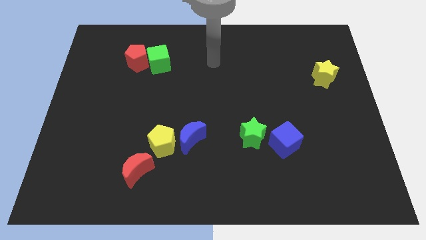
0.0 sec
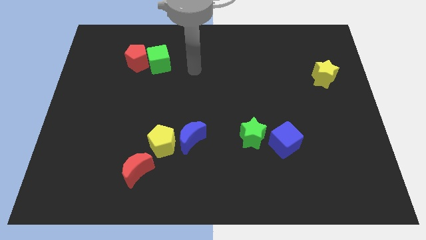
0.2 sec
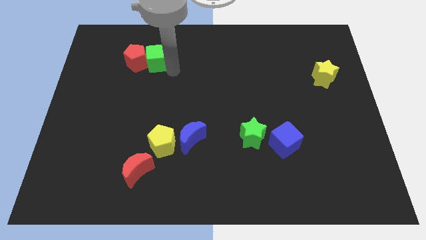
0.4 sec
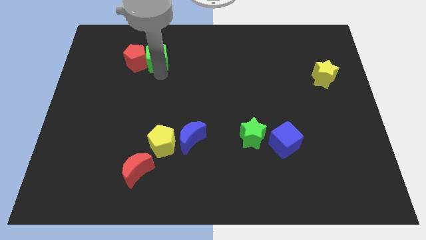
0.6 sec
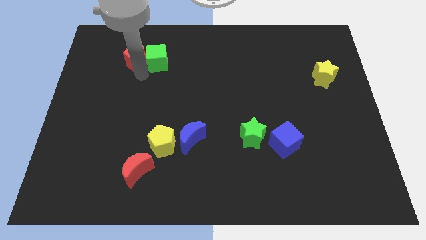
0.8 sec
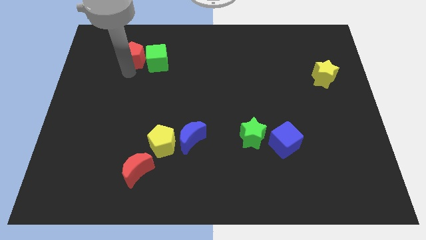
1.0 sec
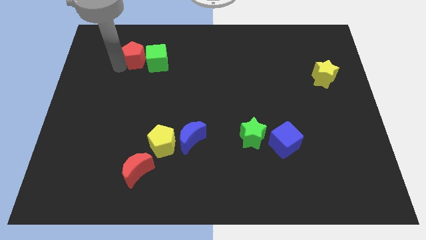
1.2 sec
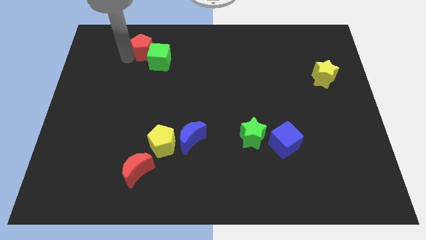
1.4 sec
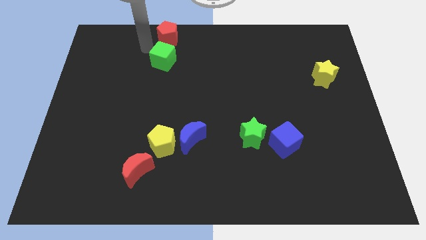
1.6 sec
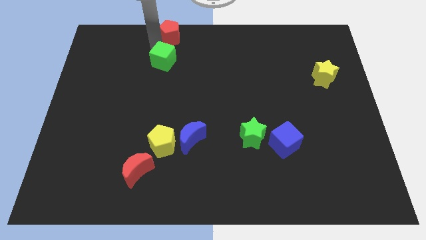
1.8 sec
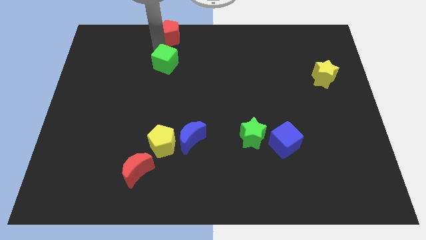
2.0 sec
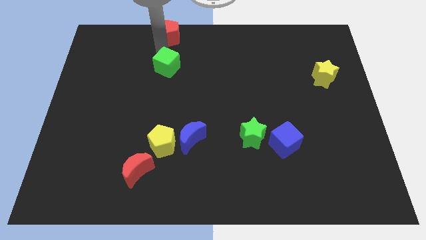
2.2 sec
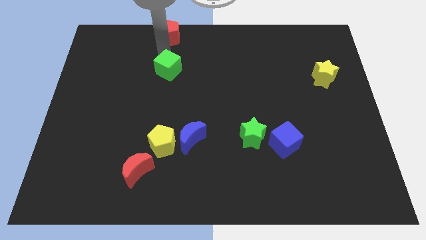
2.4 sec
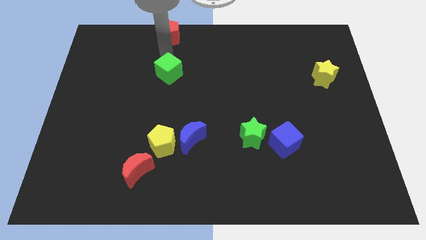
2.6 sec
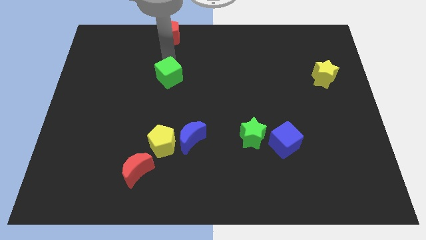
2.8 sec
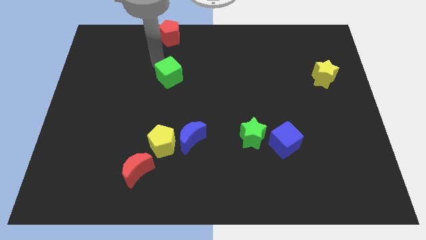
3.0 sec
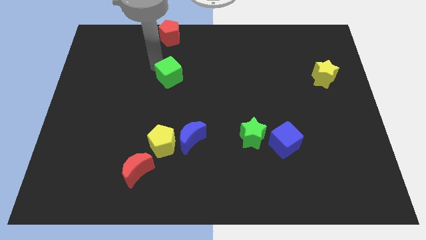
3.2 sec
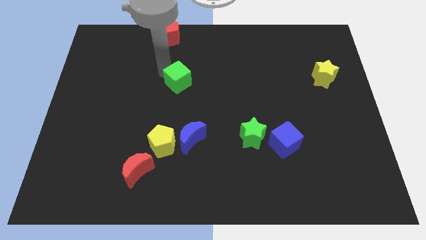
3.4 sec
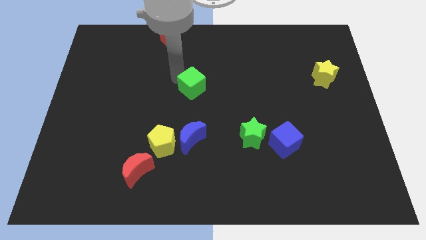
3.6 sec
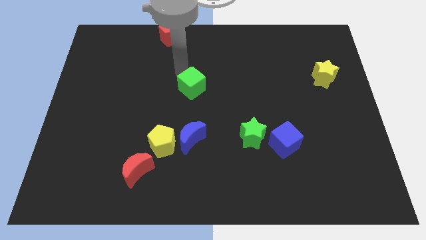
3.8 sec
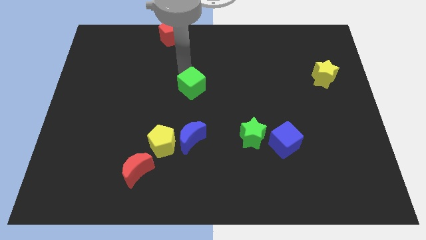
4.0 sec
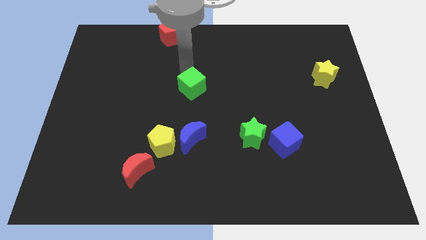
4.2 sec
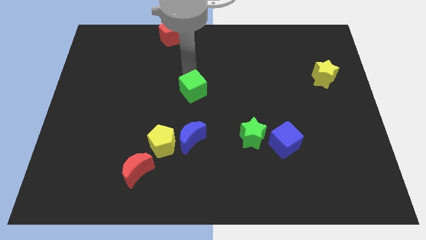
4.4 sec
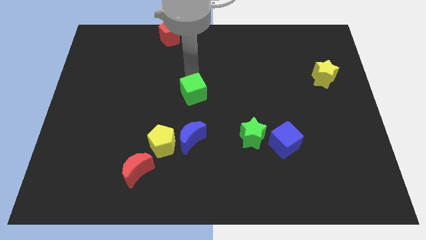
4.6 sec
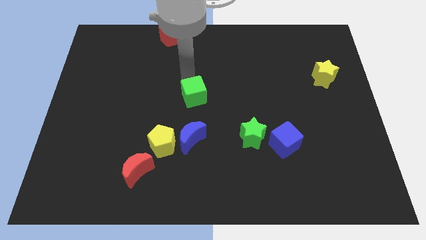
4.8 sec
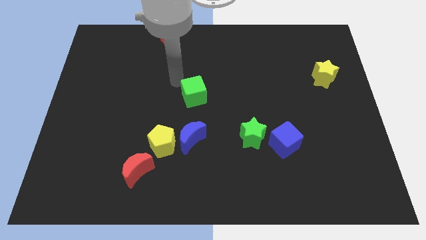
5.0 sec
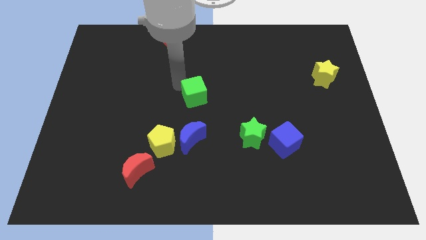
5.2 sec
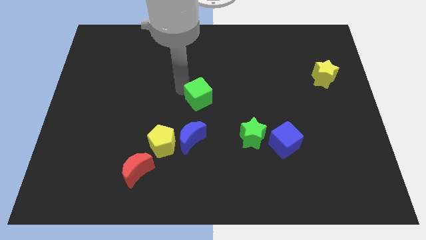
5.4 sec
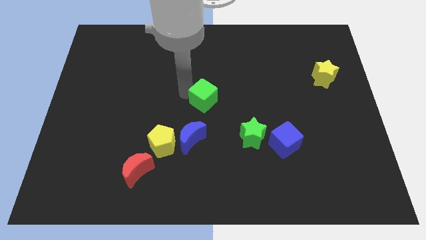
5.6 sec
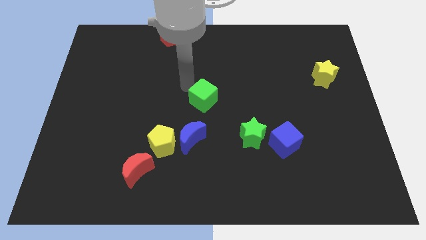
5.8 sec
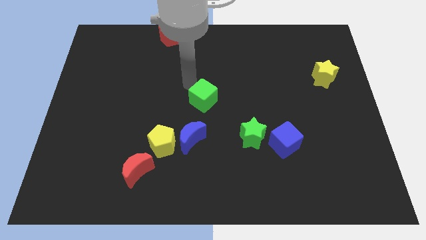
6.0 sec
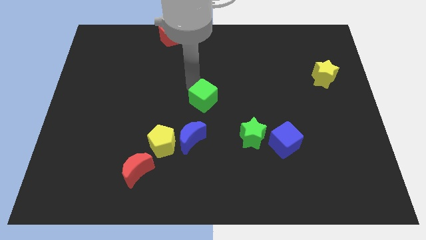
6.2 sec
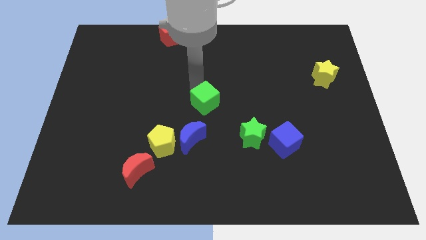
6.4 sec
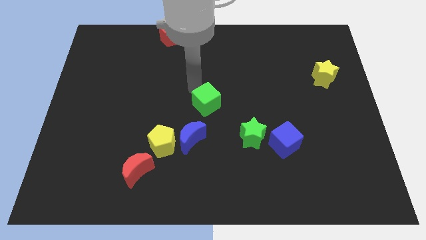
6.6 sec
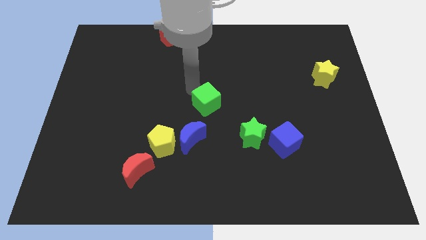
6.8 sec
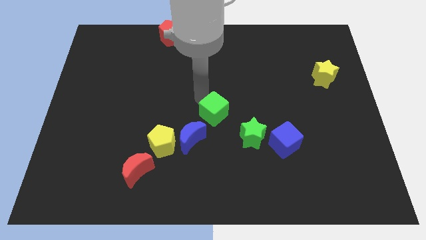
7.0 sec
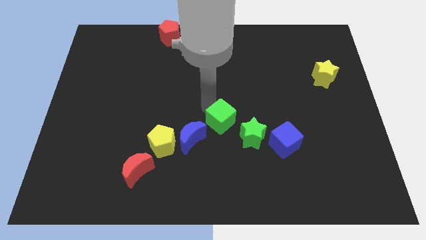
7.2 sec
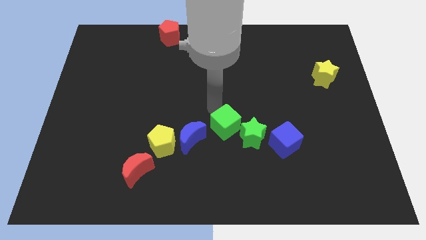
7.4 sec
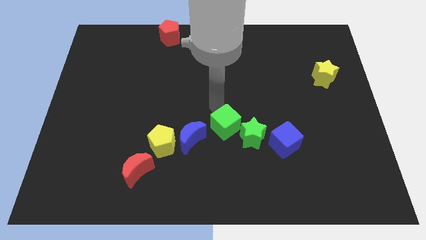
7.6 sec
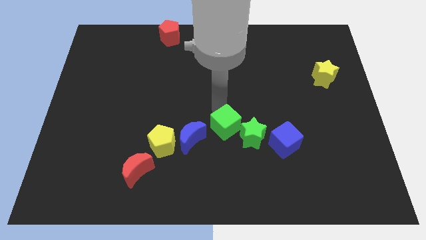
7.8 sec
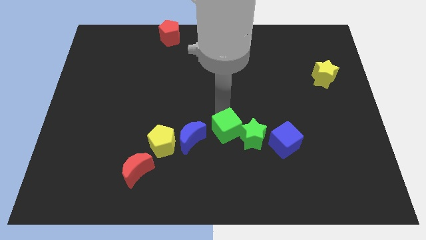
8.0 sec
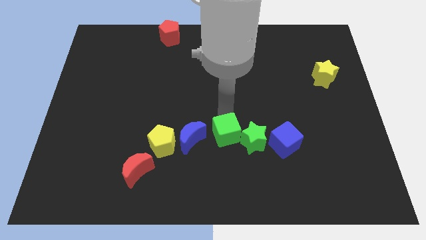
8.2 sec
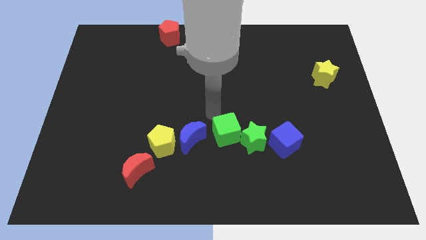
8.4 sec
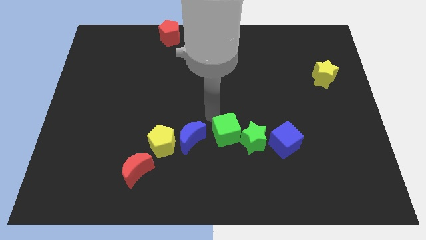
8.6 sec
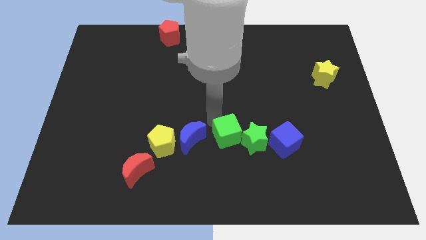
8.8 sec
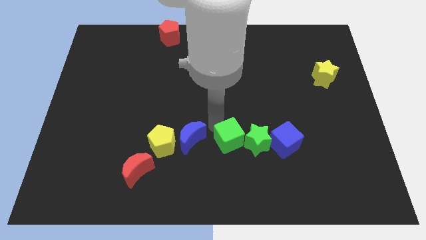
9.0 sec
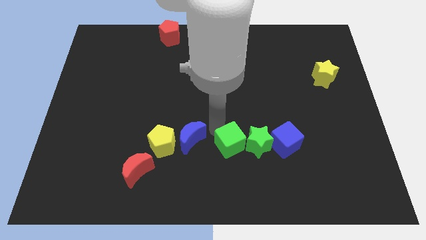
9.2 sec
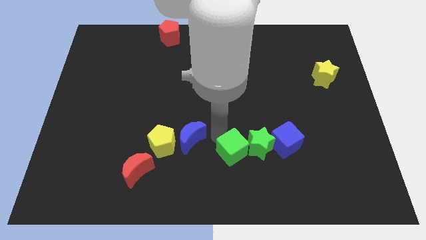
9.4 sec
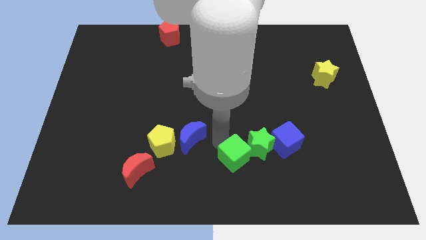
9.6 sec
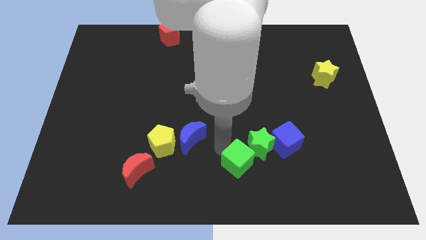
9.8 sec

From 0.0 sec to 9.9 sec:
move the green cube to the bottom left side of the blue cube

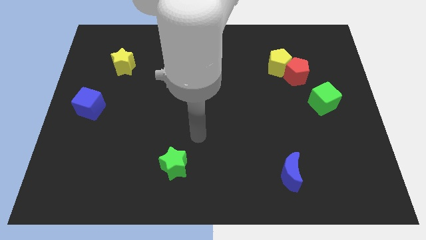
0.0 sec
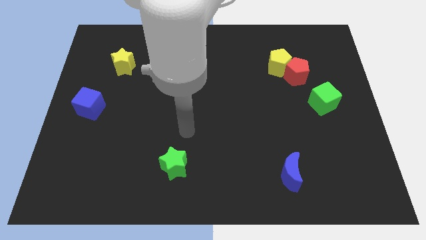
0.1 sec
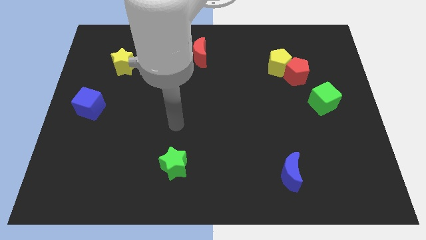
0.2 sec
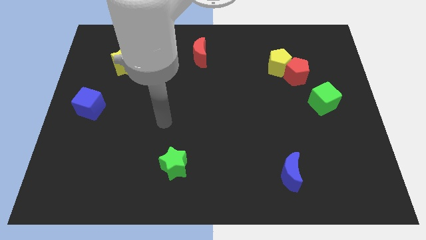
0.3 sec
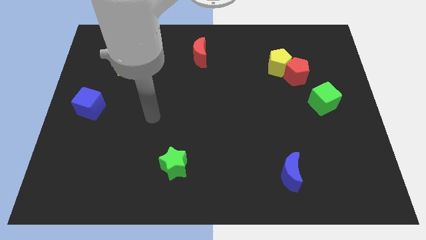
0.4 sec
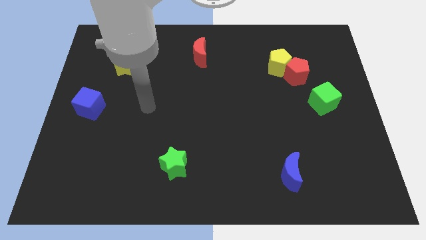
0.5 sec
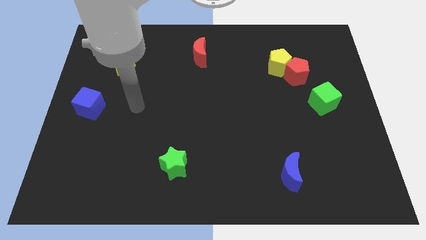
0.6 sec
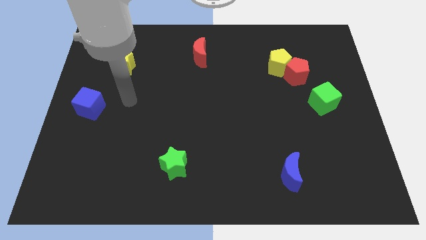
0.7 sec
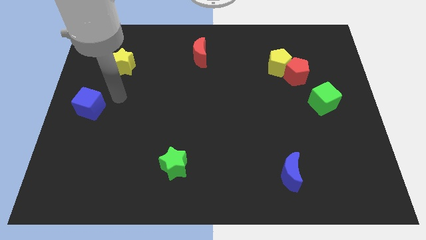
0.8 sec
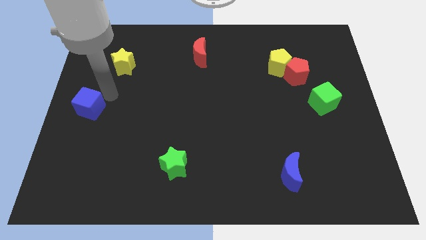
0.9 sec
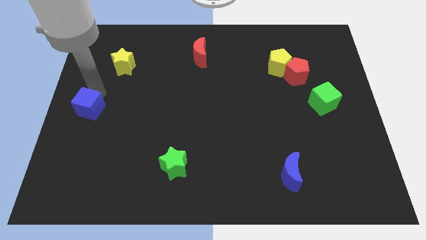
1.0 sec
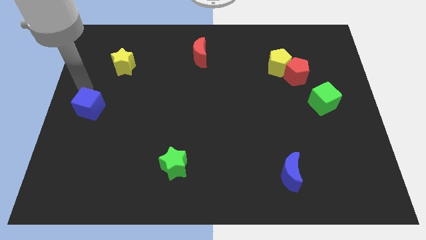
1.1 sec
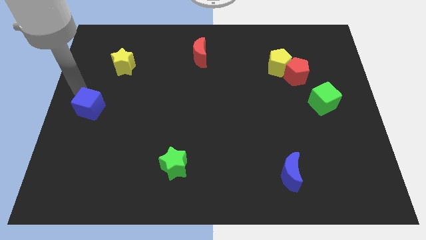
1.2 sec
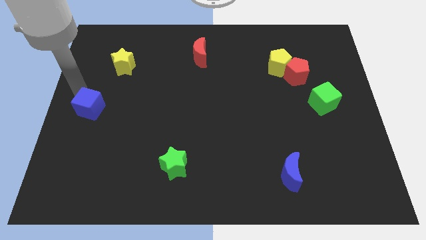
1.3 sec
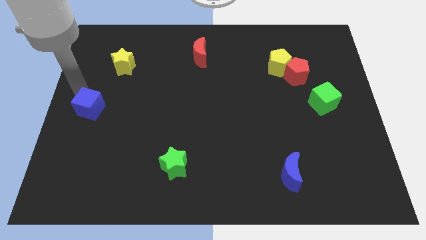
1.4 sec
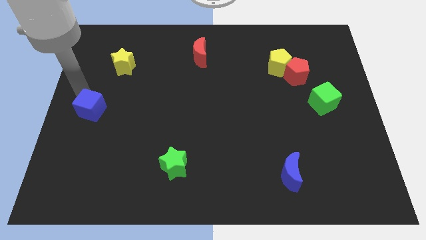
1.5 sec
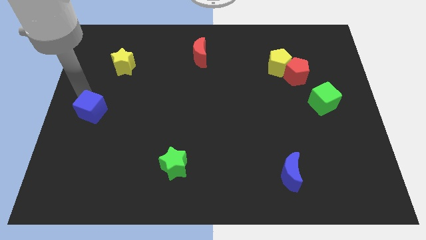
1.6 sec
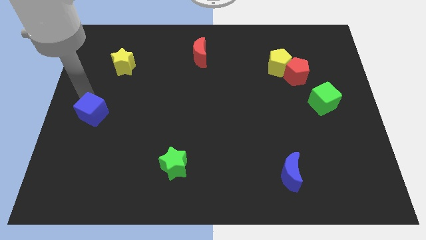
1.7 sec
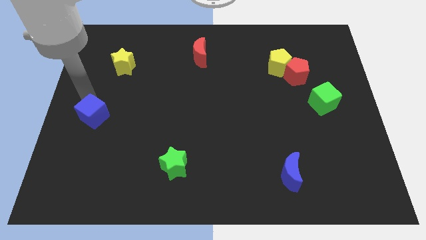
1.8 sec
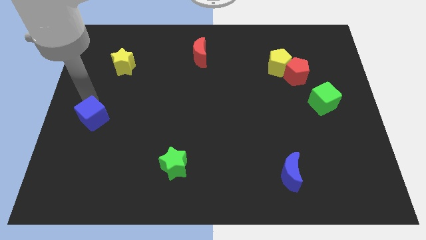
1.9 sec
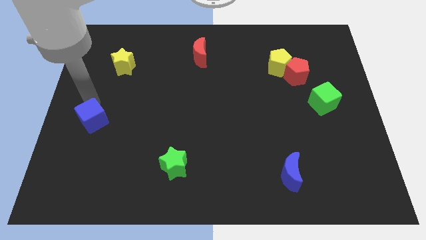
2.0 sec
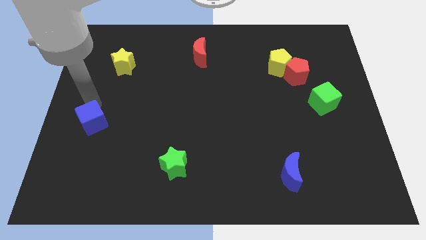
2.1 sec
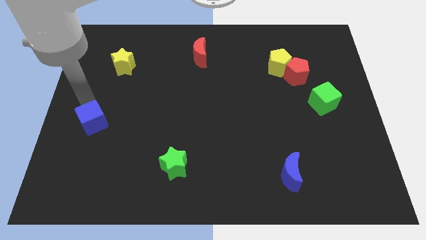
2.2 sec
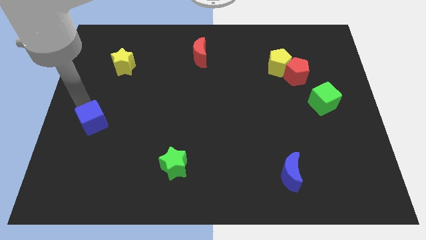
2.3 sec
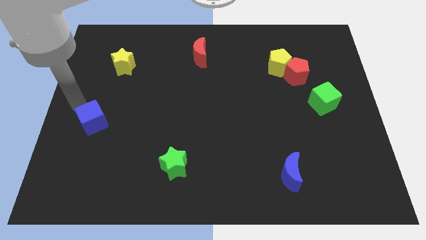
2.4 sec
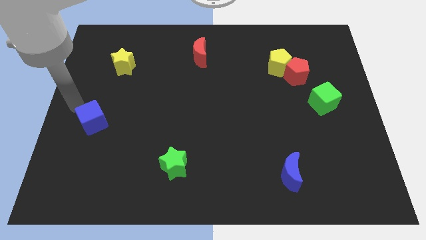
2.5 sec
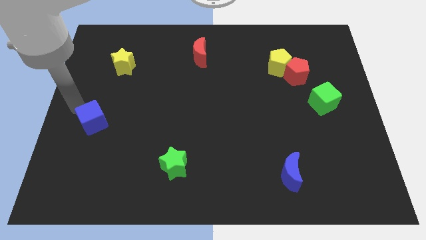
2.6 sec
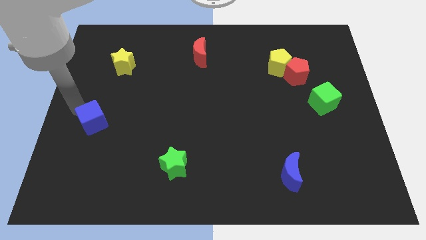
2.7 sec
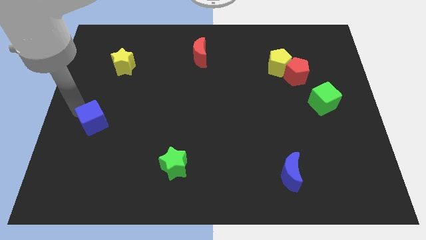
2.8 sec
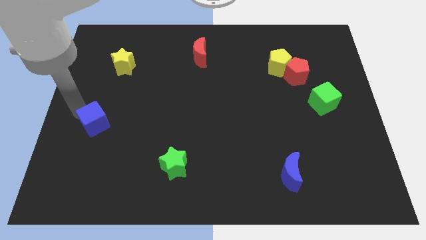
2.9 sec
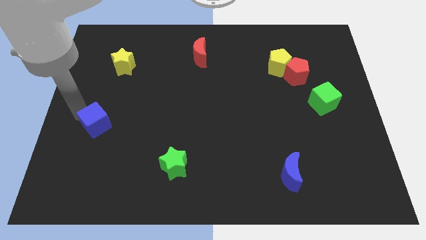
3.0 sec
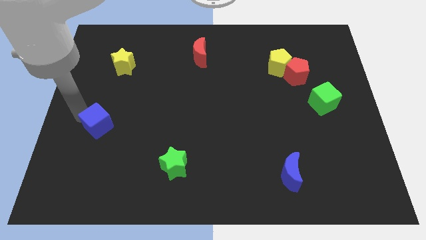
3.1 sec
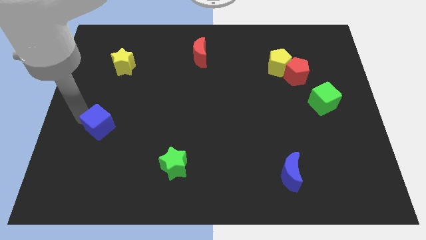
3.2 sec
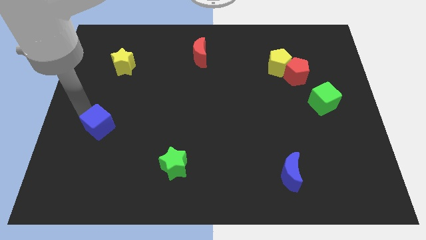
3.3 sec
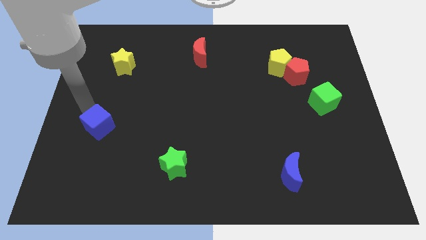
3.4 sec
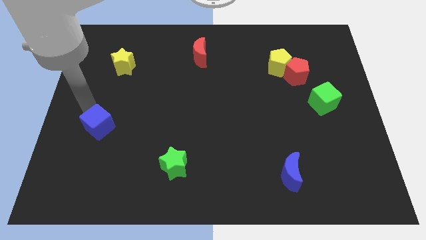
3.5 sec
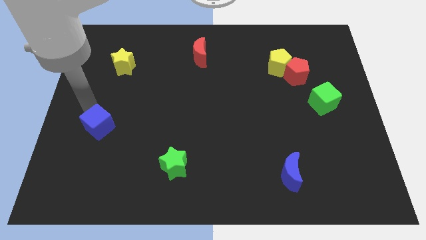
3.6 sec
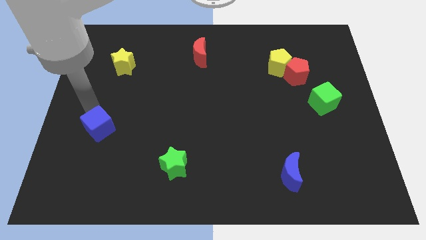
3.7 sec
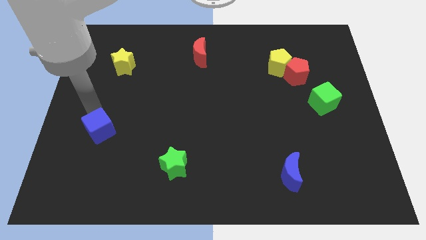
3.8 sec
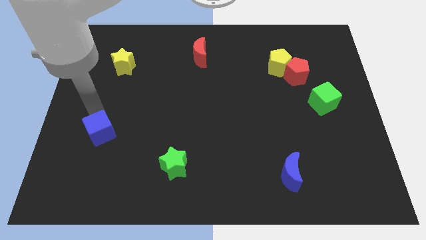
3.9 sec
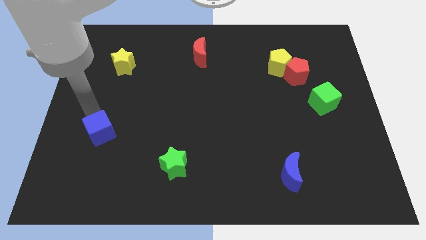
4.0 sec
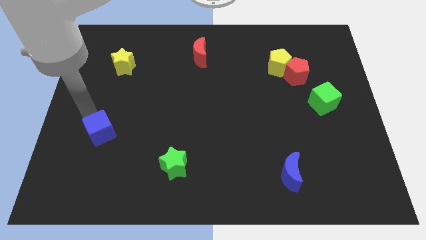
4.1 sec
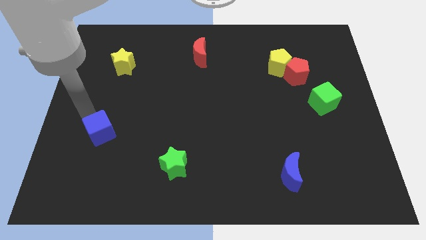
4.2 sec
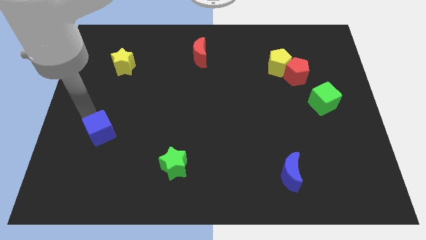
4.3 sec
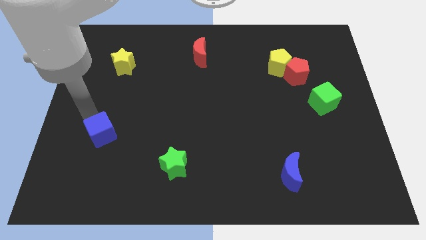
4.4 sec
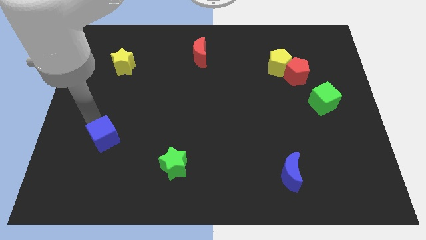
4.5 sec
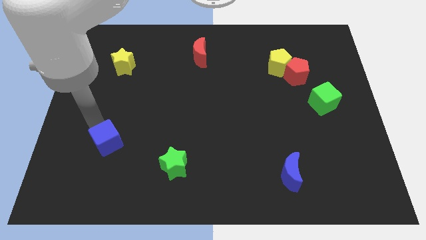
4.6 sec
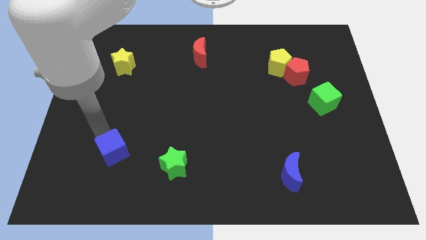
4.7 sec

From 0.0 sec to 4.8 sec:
slide the blue cube left of the green star
